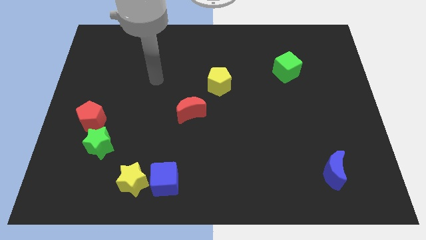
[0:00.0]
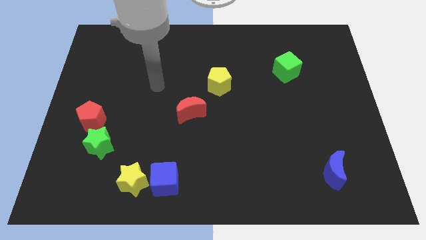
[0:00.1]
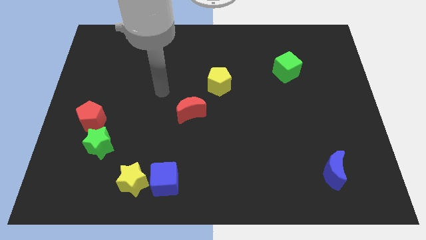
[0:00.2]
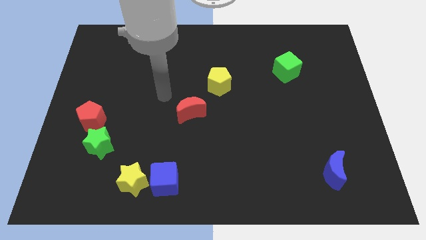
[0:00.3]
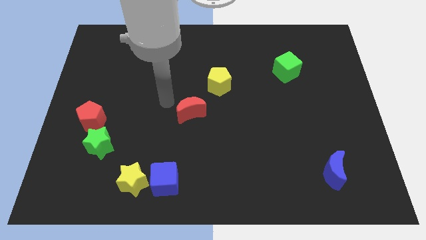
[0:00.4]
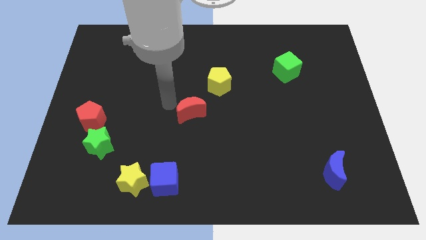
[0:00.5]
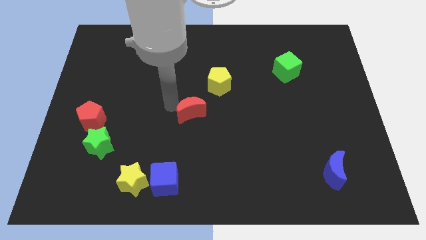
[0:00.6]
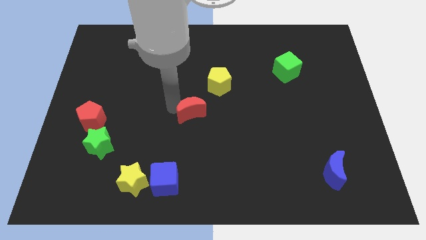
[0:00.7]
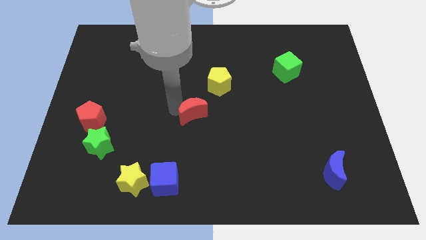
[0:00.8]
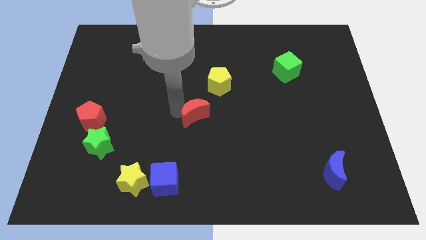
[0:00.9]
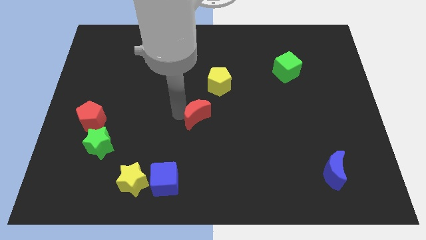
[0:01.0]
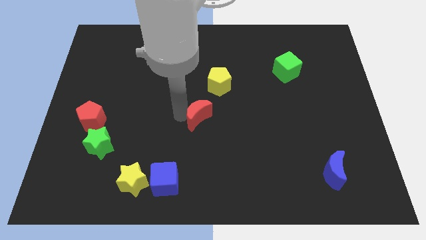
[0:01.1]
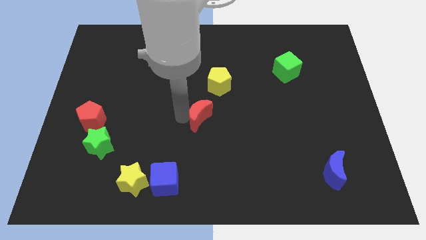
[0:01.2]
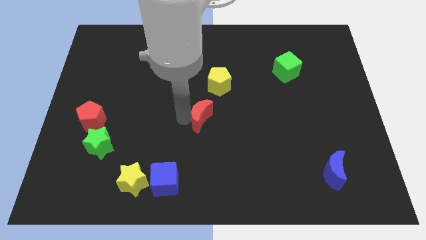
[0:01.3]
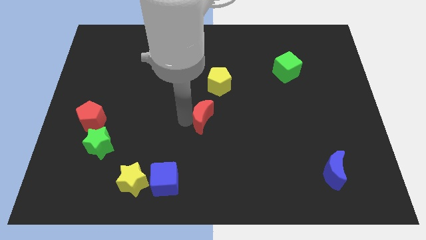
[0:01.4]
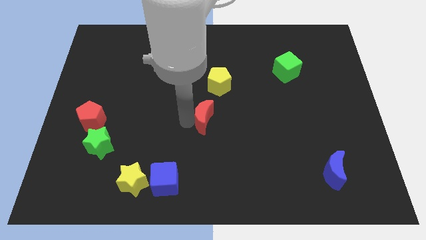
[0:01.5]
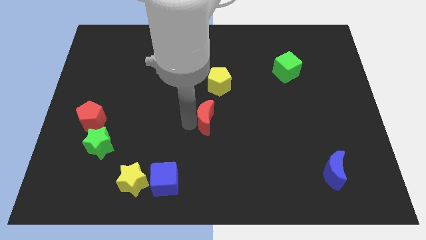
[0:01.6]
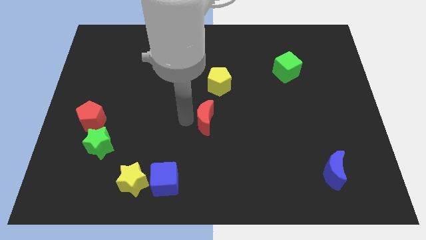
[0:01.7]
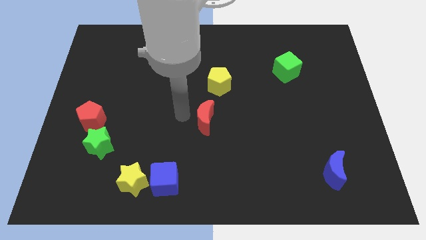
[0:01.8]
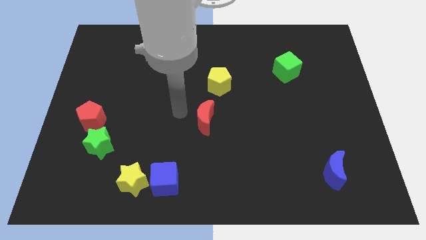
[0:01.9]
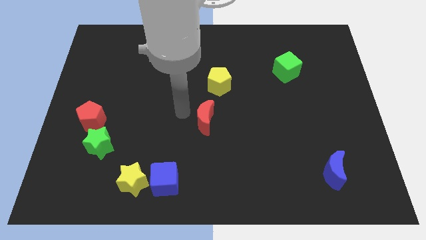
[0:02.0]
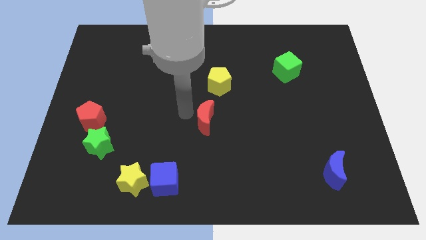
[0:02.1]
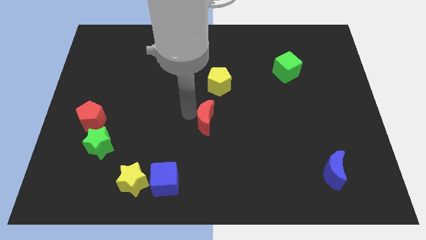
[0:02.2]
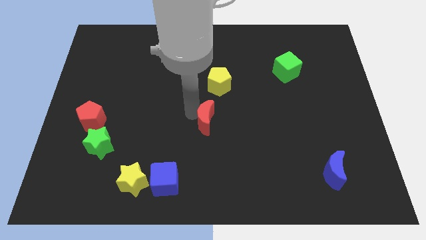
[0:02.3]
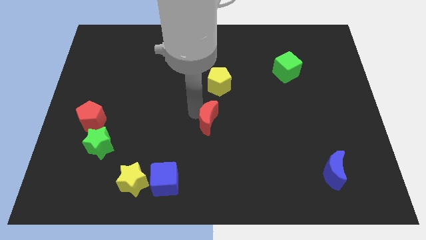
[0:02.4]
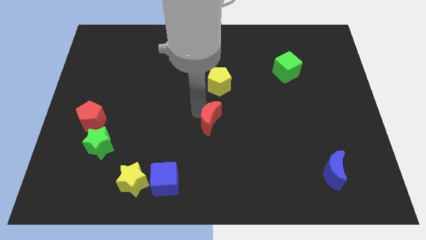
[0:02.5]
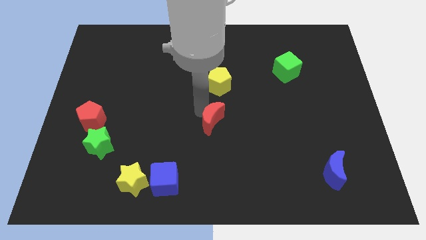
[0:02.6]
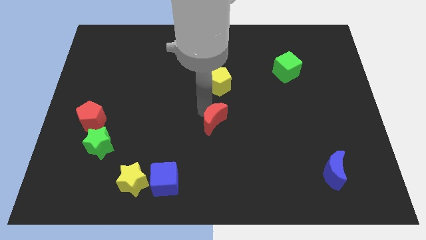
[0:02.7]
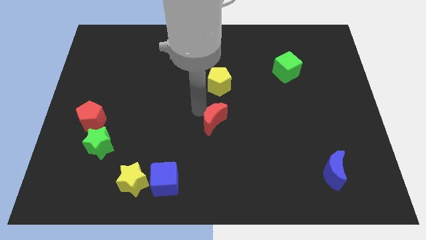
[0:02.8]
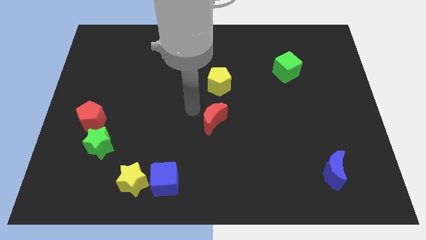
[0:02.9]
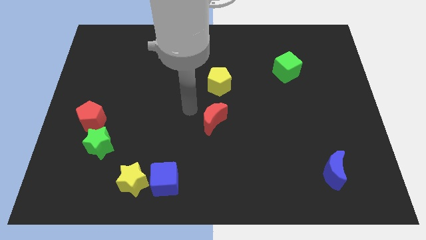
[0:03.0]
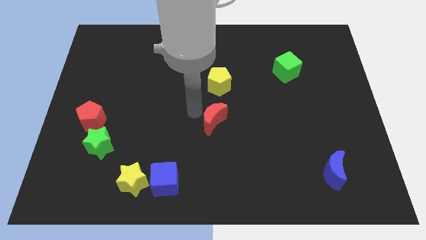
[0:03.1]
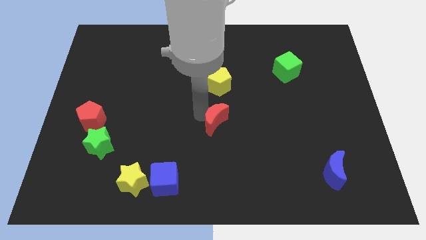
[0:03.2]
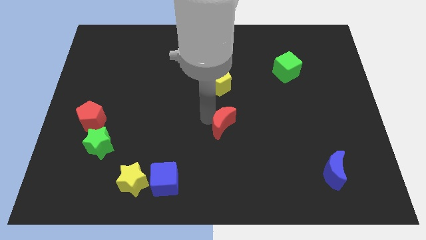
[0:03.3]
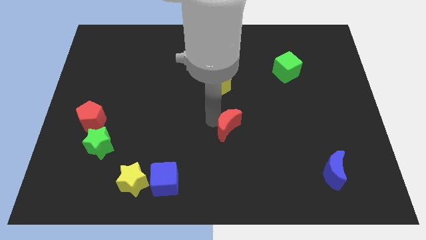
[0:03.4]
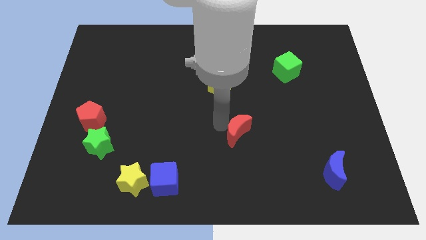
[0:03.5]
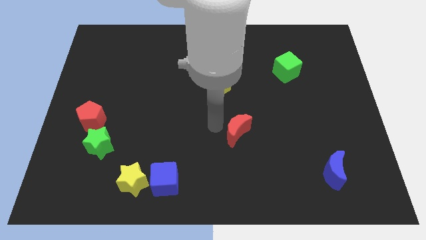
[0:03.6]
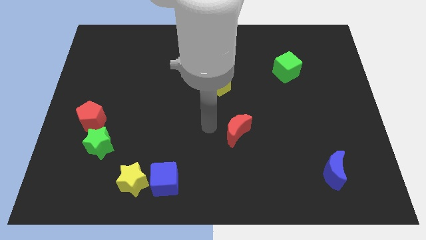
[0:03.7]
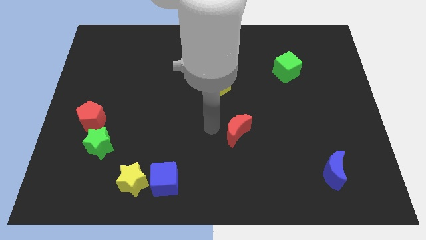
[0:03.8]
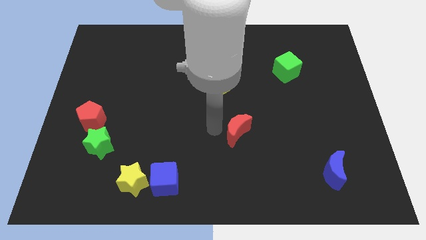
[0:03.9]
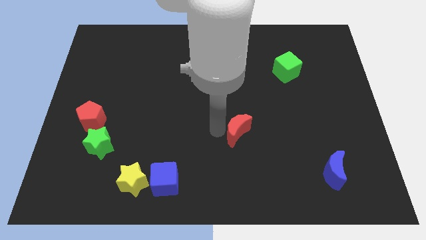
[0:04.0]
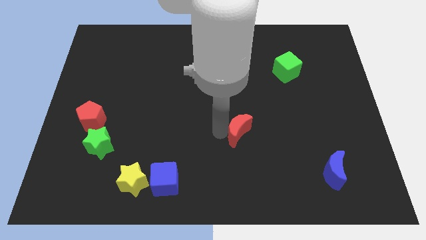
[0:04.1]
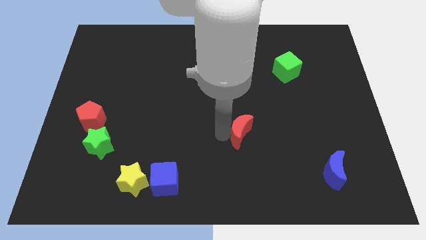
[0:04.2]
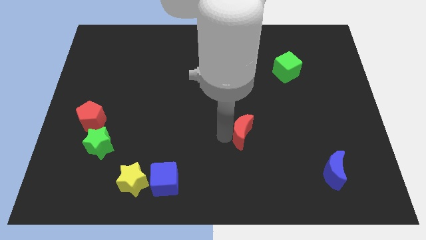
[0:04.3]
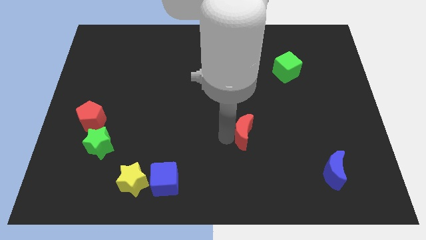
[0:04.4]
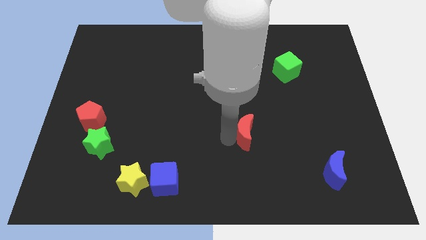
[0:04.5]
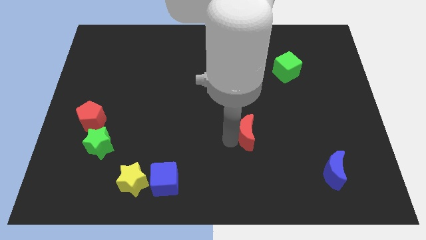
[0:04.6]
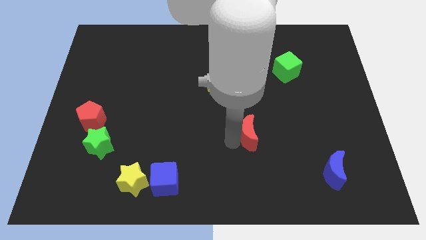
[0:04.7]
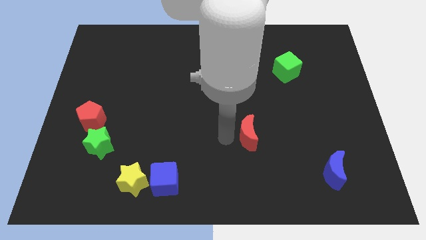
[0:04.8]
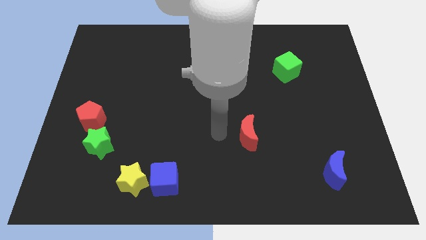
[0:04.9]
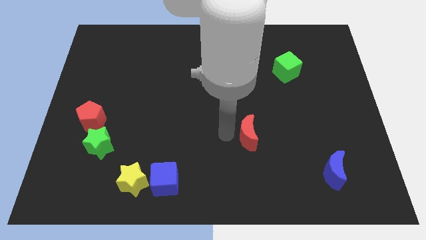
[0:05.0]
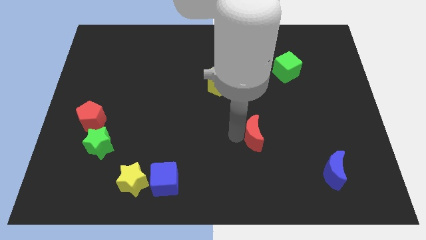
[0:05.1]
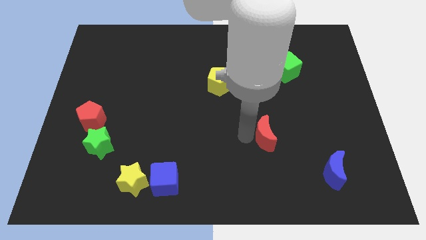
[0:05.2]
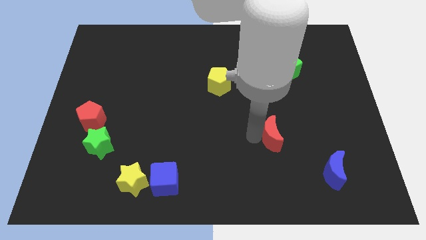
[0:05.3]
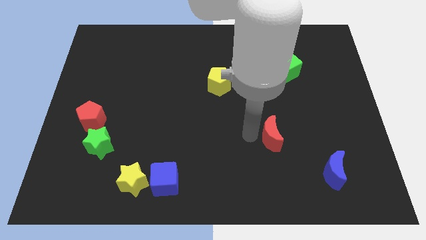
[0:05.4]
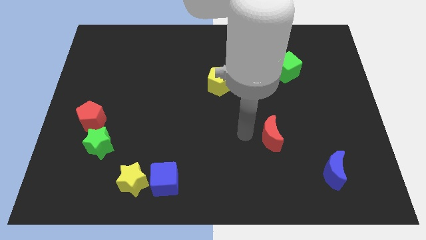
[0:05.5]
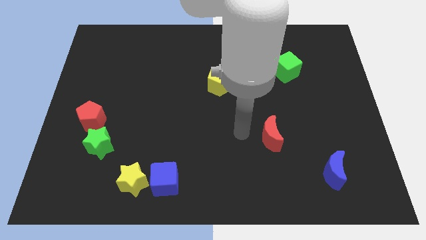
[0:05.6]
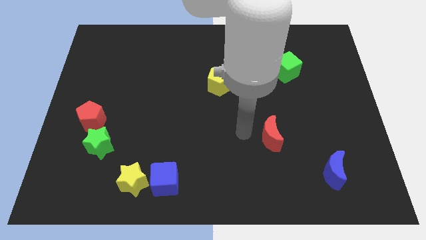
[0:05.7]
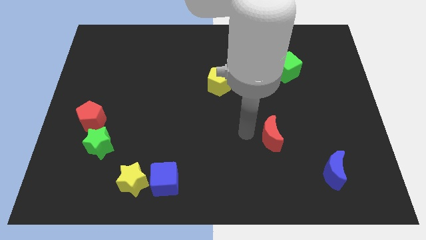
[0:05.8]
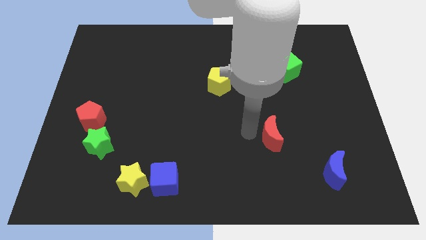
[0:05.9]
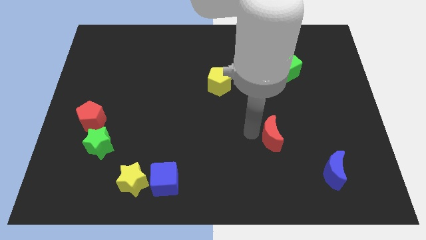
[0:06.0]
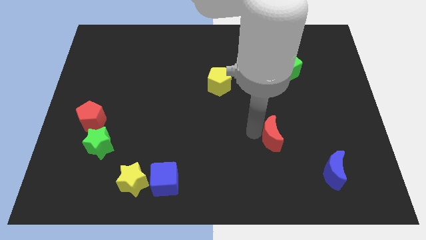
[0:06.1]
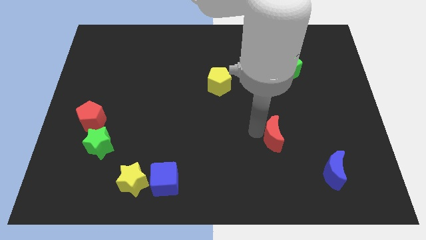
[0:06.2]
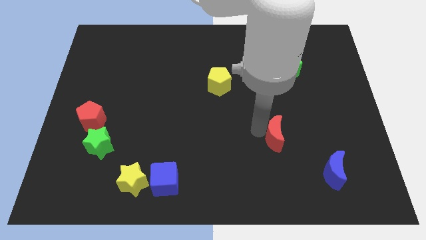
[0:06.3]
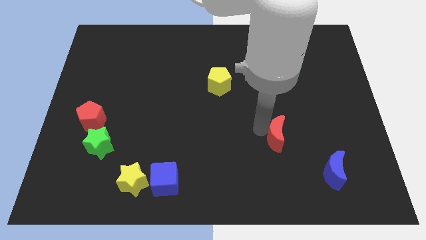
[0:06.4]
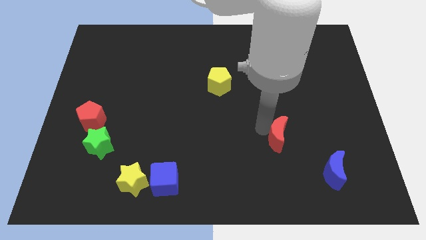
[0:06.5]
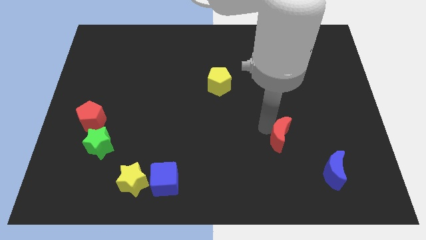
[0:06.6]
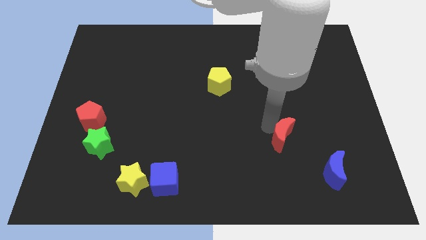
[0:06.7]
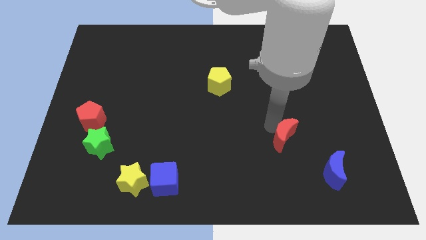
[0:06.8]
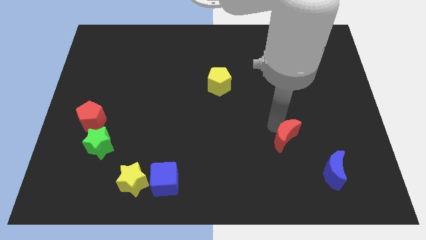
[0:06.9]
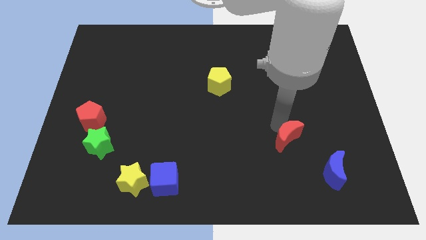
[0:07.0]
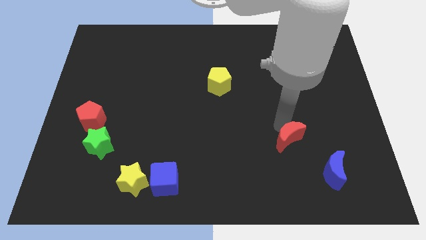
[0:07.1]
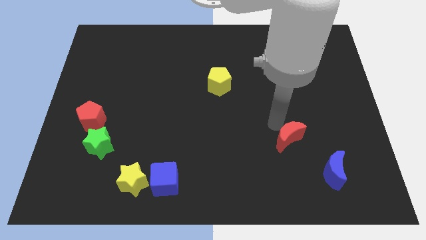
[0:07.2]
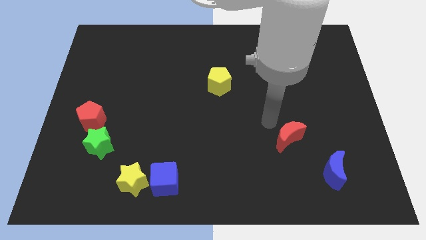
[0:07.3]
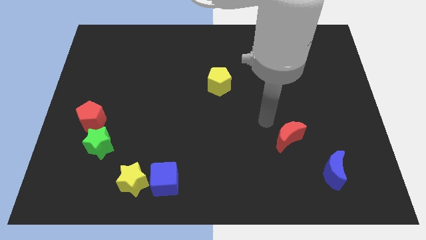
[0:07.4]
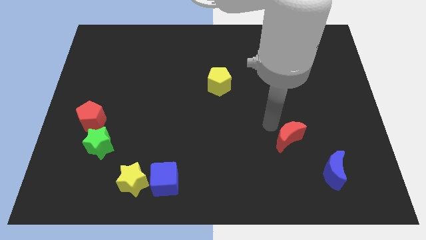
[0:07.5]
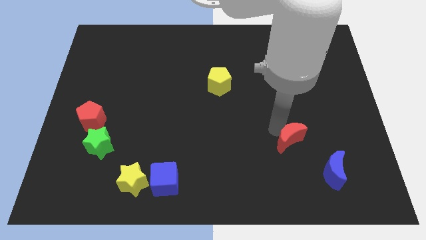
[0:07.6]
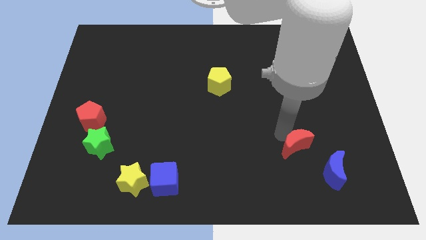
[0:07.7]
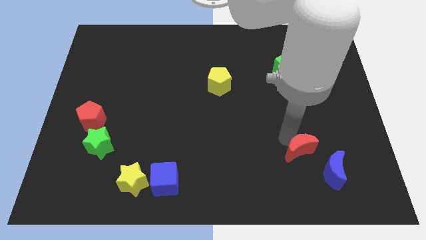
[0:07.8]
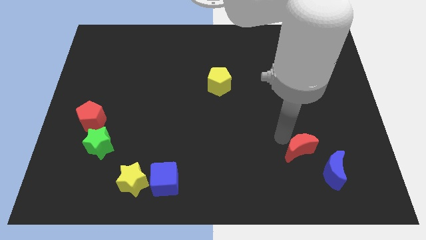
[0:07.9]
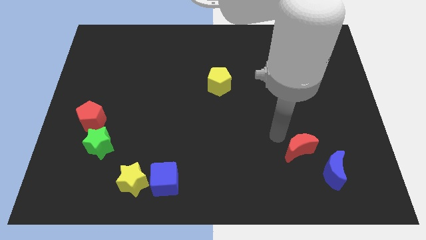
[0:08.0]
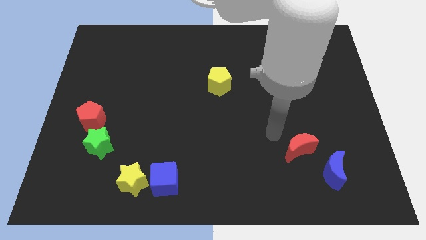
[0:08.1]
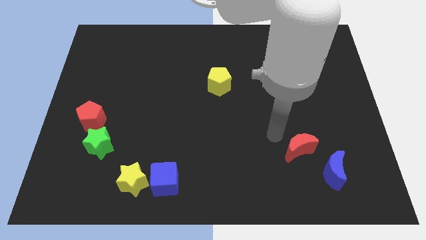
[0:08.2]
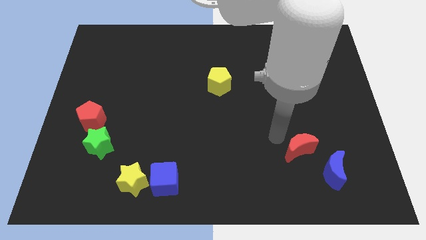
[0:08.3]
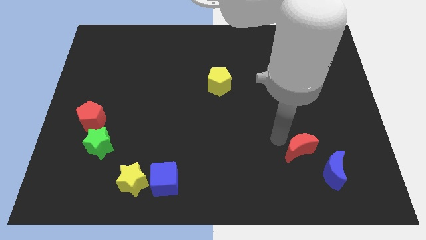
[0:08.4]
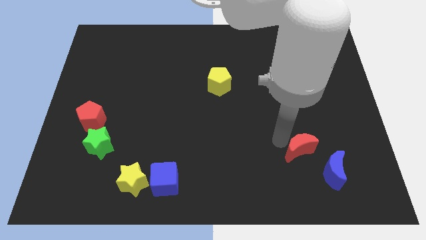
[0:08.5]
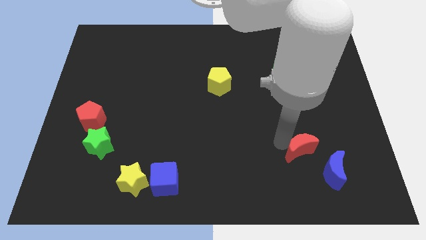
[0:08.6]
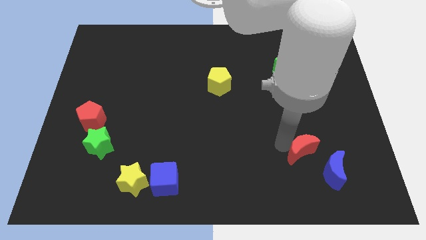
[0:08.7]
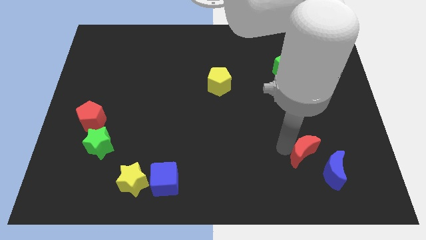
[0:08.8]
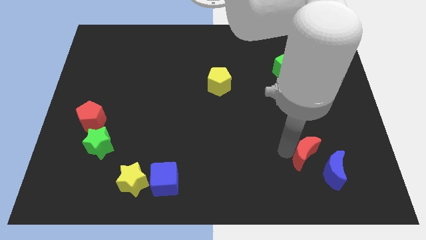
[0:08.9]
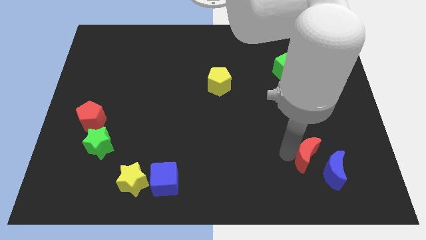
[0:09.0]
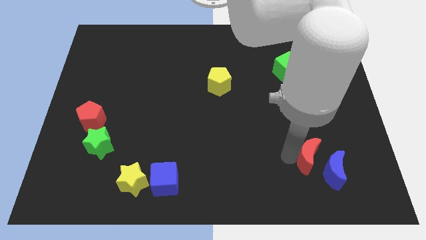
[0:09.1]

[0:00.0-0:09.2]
put the red moon next to the blue moon
